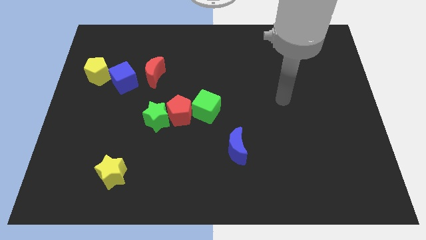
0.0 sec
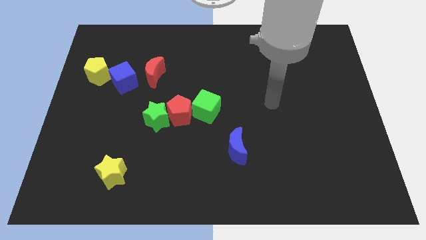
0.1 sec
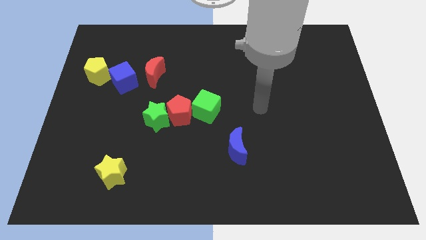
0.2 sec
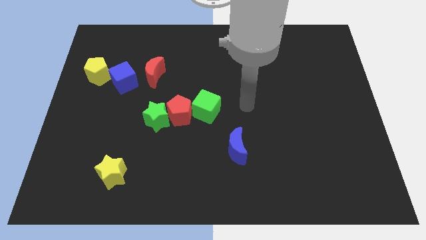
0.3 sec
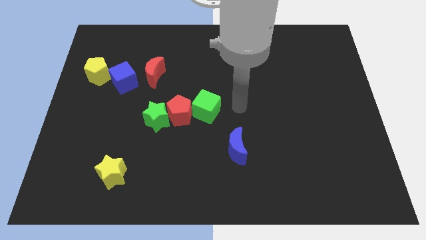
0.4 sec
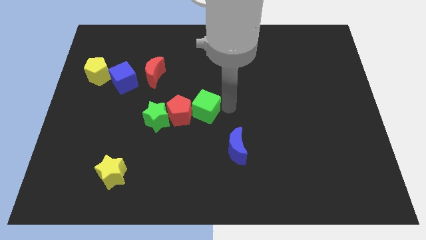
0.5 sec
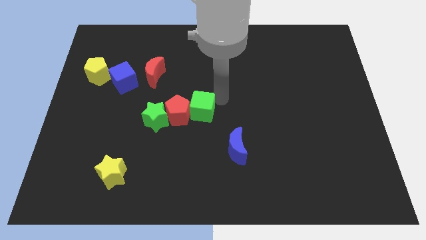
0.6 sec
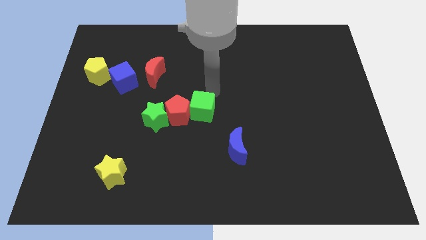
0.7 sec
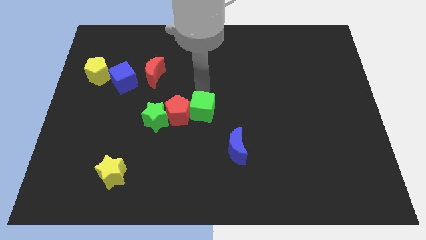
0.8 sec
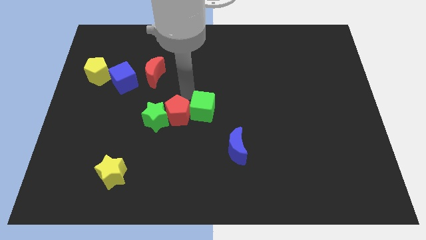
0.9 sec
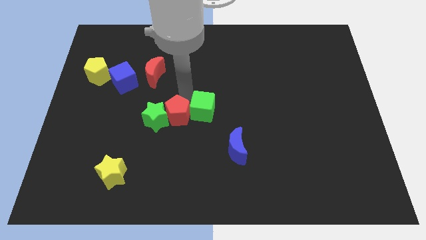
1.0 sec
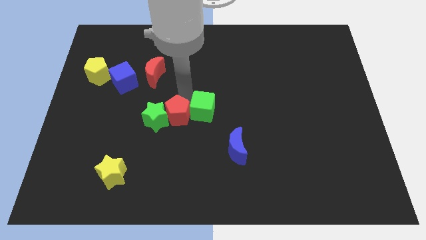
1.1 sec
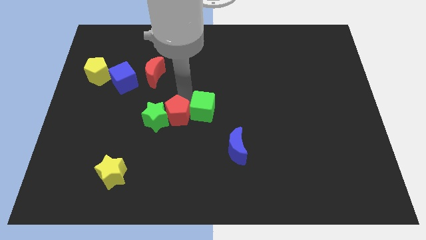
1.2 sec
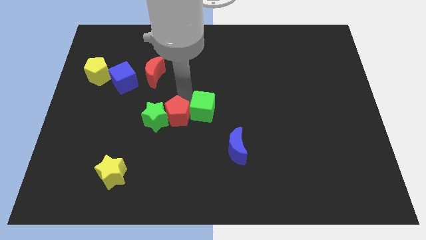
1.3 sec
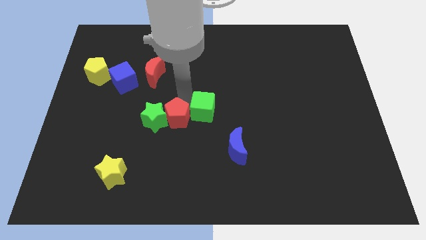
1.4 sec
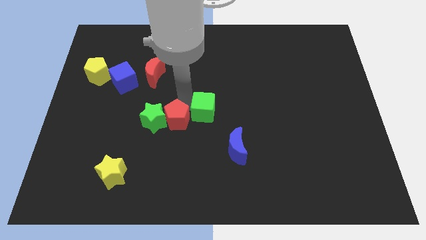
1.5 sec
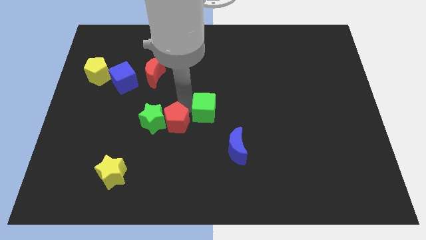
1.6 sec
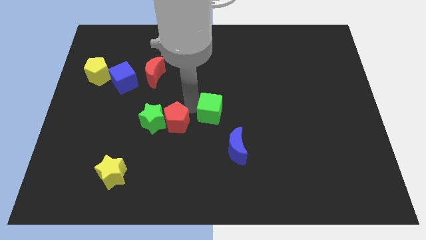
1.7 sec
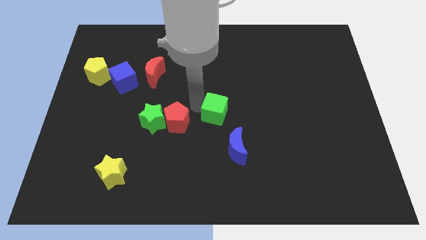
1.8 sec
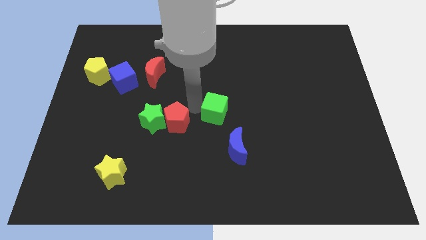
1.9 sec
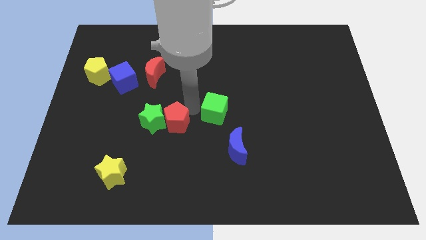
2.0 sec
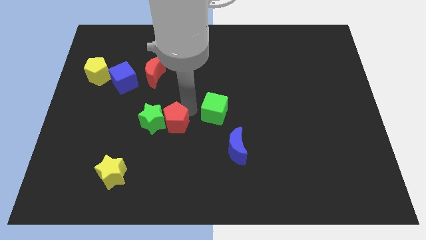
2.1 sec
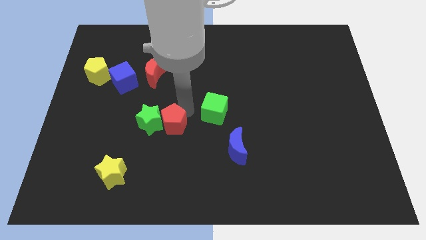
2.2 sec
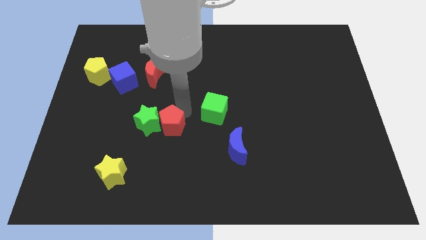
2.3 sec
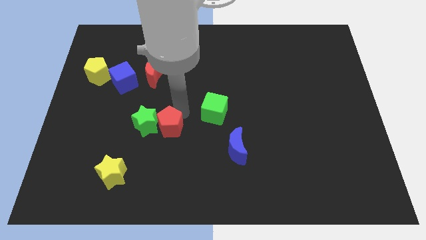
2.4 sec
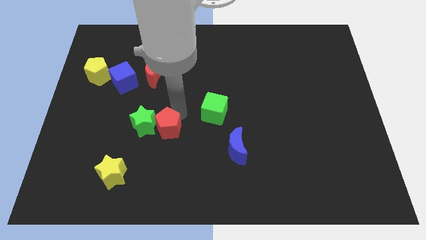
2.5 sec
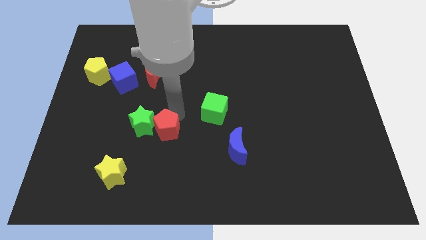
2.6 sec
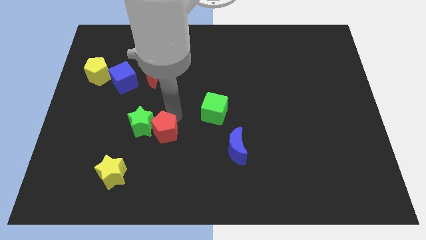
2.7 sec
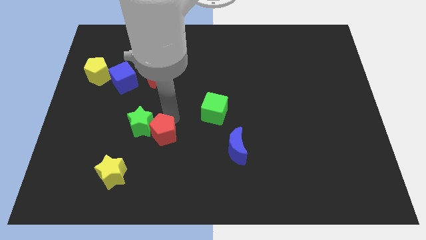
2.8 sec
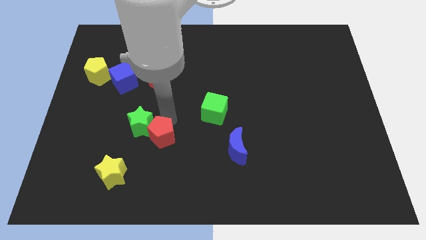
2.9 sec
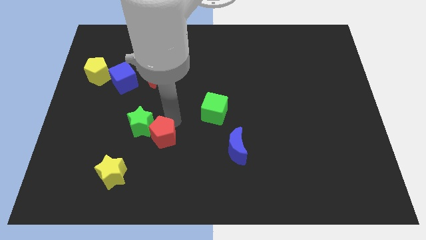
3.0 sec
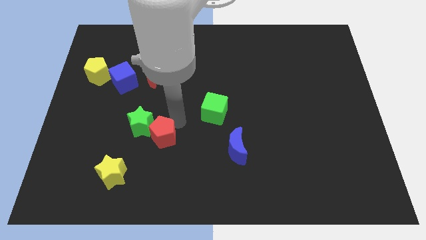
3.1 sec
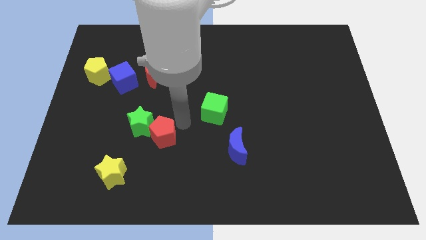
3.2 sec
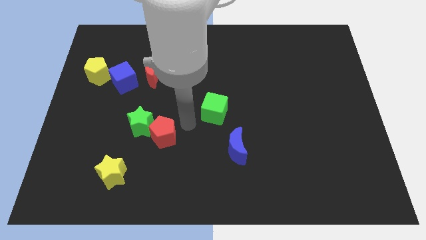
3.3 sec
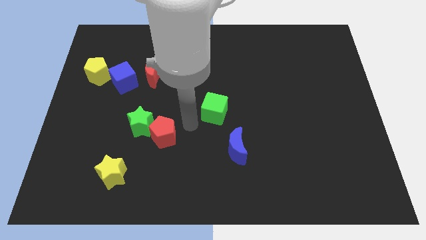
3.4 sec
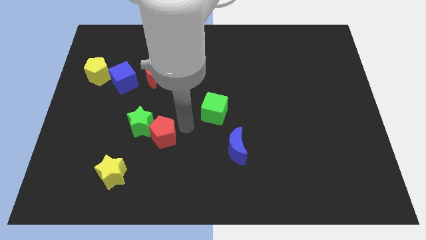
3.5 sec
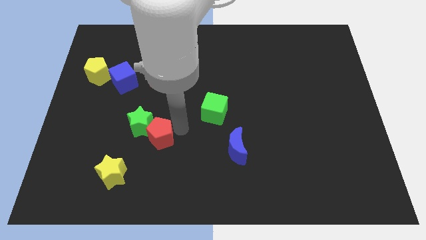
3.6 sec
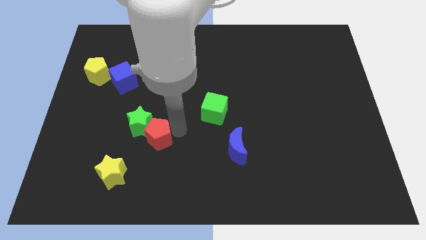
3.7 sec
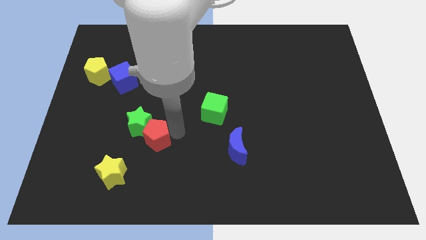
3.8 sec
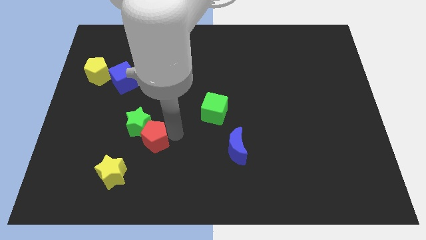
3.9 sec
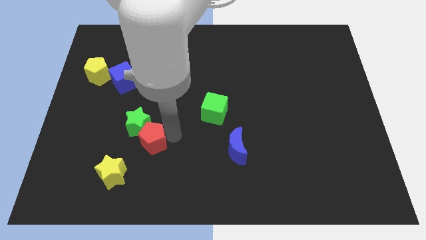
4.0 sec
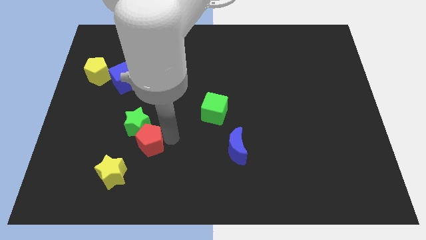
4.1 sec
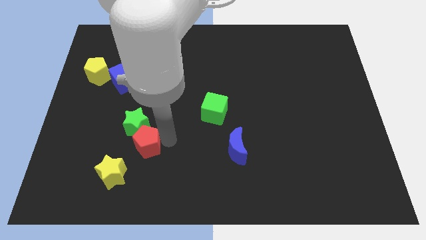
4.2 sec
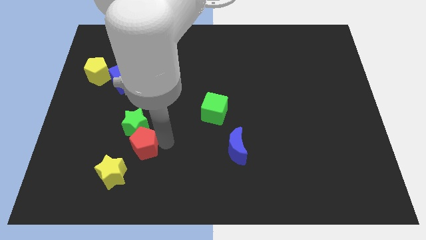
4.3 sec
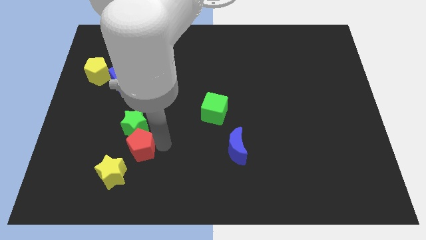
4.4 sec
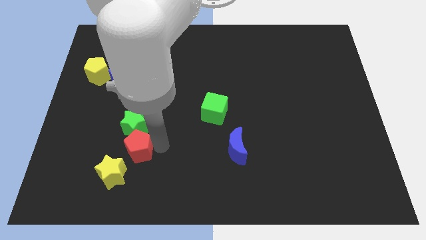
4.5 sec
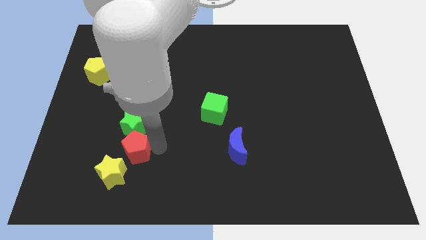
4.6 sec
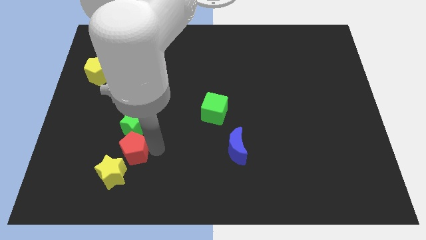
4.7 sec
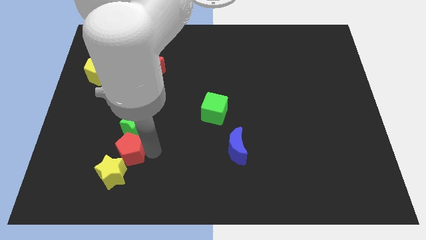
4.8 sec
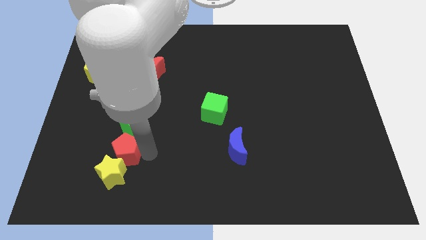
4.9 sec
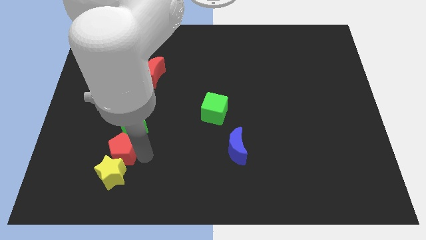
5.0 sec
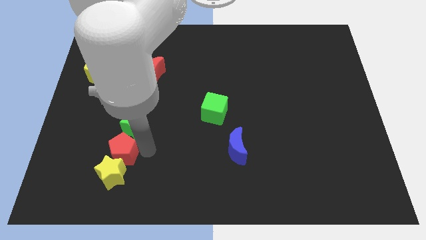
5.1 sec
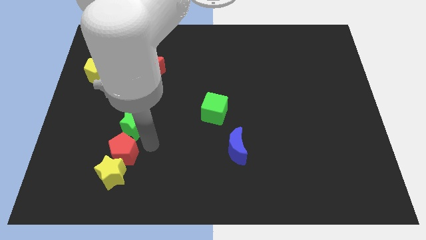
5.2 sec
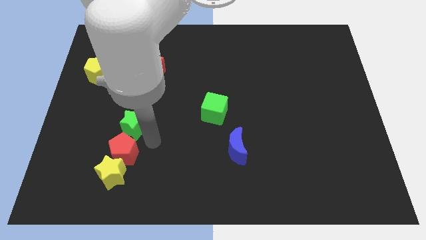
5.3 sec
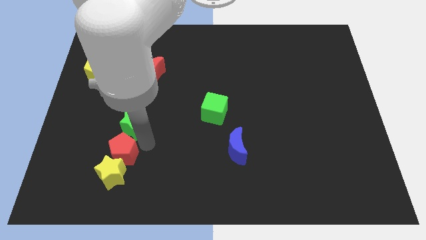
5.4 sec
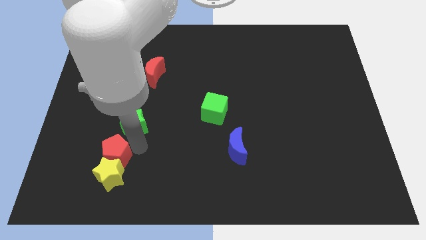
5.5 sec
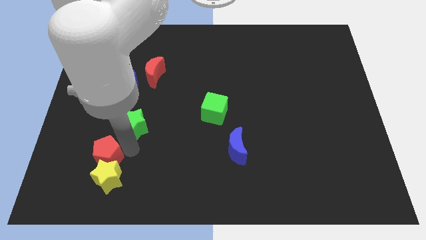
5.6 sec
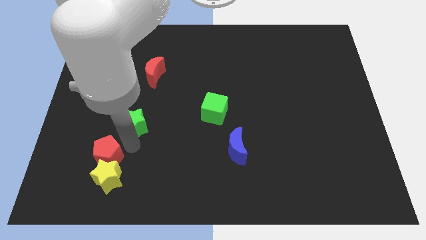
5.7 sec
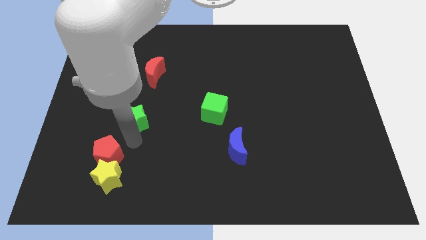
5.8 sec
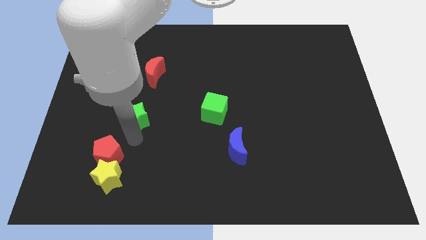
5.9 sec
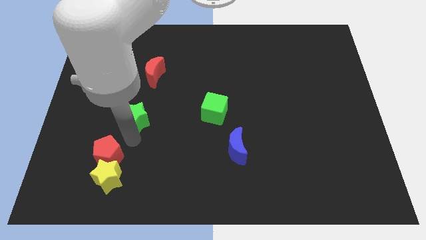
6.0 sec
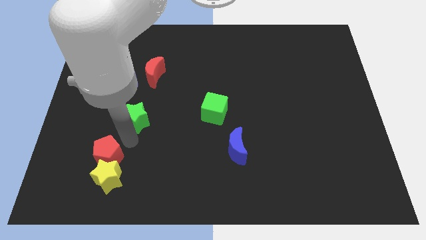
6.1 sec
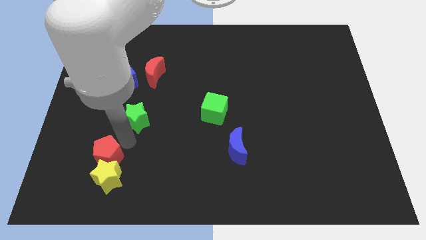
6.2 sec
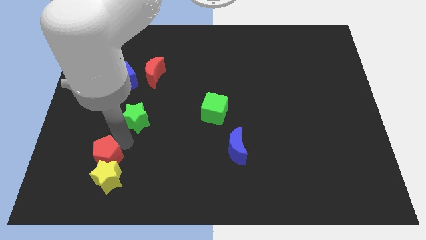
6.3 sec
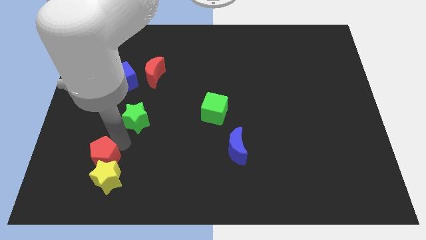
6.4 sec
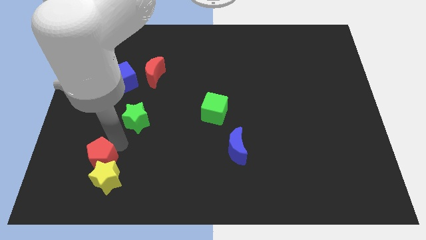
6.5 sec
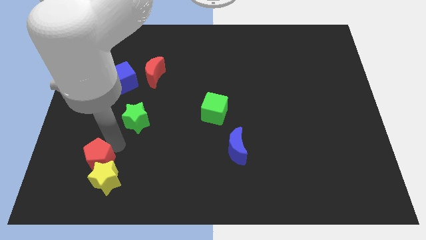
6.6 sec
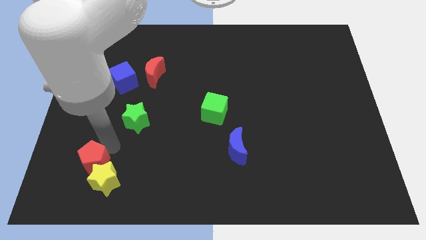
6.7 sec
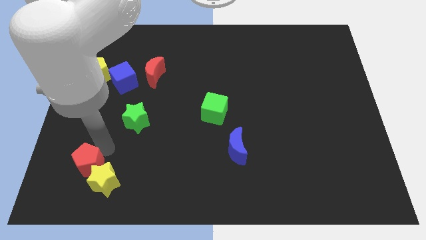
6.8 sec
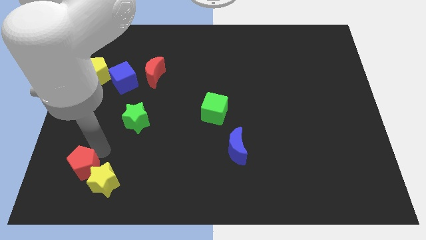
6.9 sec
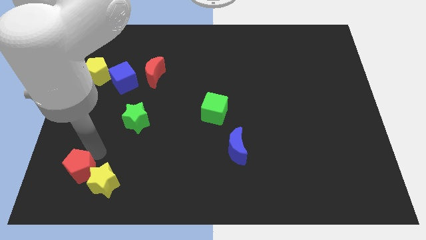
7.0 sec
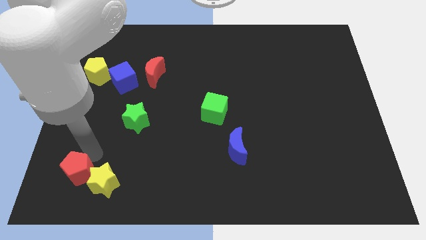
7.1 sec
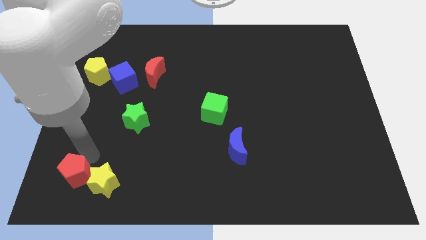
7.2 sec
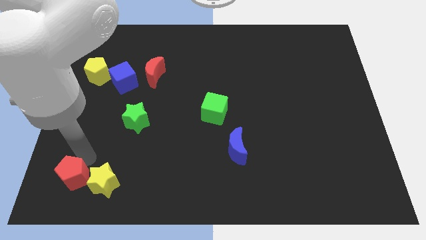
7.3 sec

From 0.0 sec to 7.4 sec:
slide the red pentagon to the bottom left of the board
